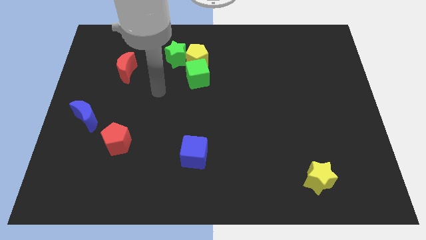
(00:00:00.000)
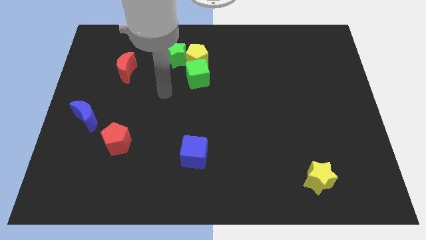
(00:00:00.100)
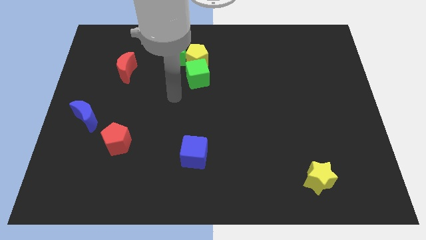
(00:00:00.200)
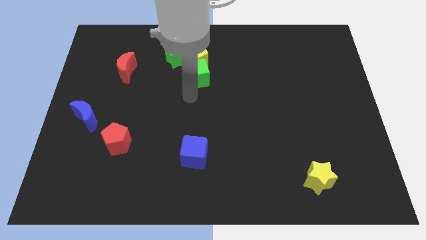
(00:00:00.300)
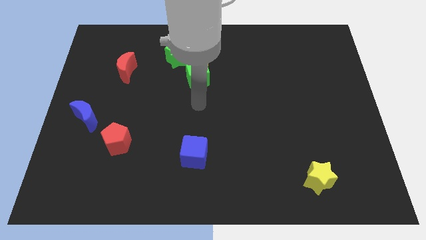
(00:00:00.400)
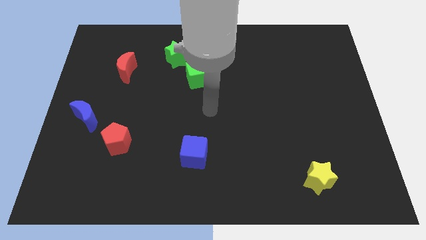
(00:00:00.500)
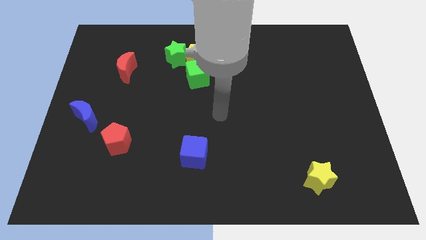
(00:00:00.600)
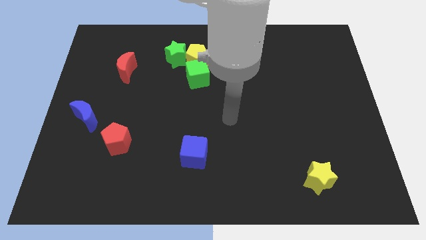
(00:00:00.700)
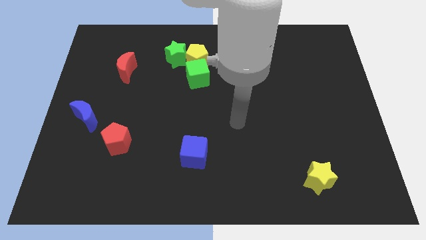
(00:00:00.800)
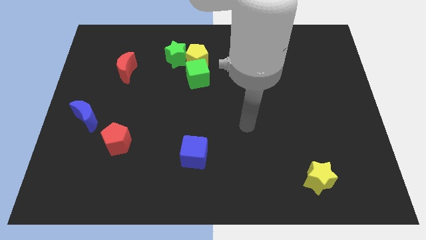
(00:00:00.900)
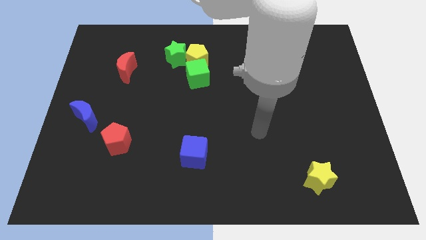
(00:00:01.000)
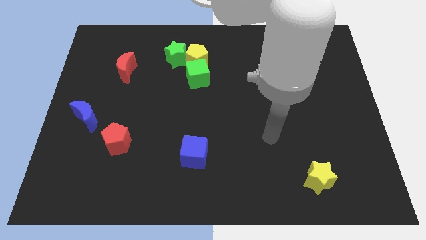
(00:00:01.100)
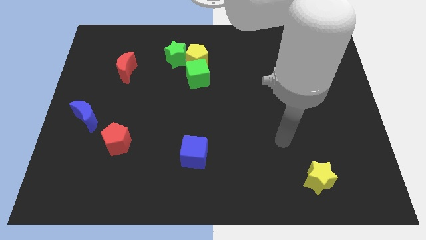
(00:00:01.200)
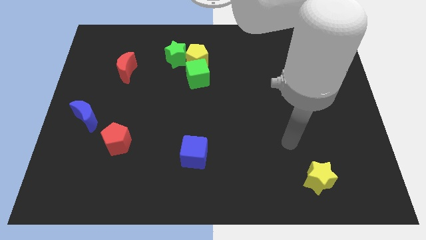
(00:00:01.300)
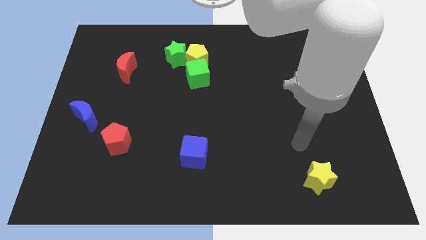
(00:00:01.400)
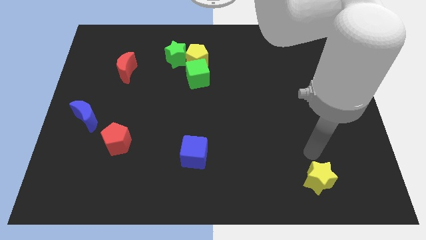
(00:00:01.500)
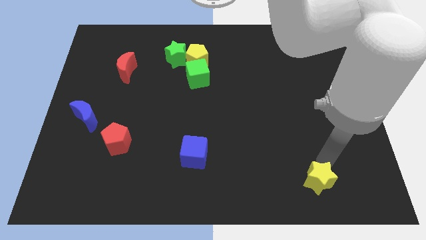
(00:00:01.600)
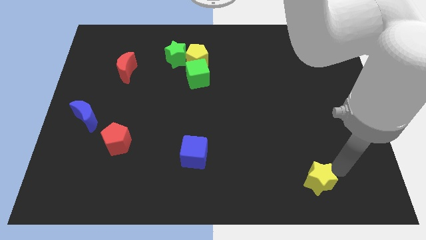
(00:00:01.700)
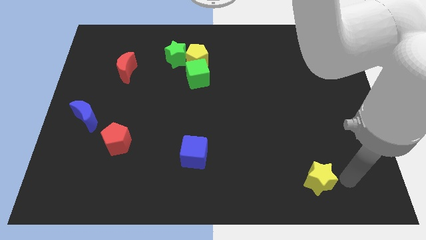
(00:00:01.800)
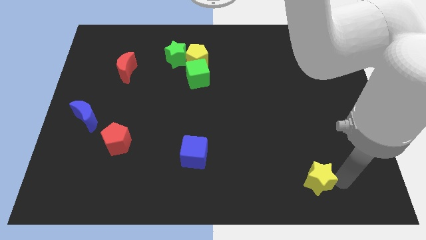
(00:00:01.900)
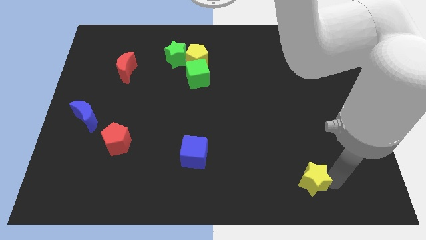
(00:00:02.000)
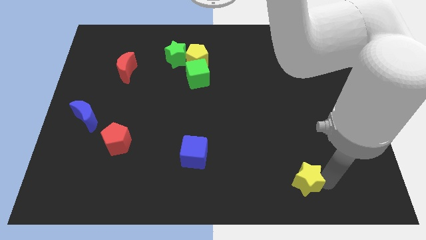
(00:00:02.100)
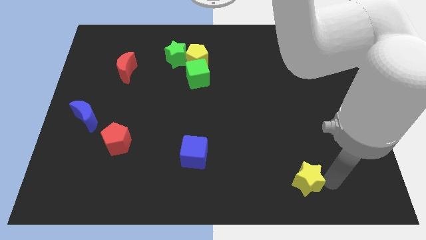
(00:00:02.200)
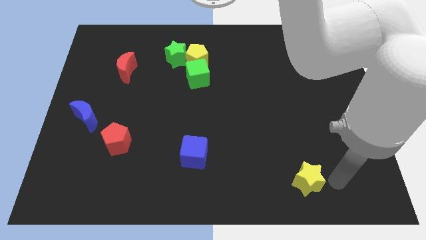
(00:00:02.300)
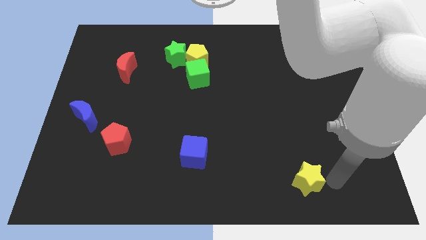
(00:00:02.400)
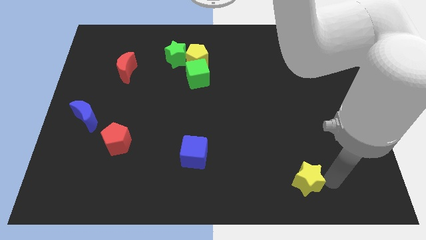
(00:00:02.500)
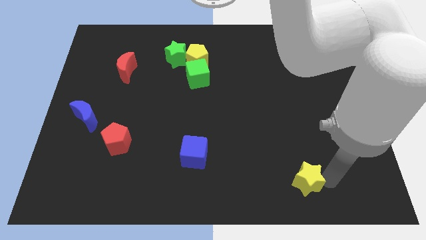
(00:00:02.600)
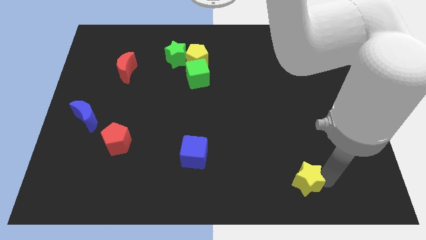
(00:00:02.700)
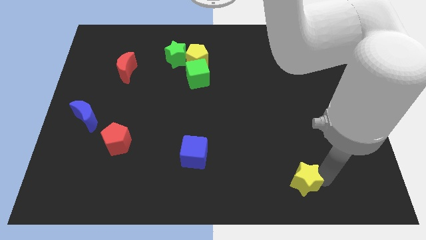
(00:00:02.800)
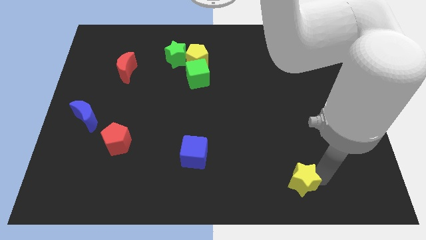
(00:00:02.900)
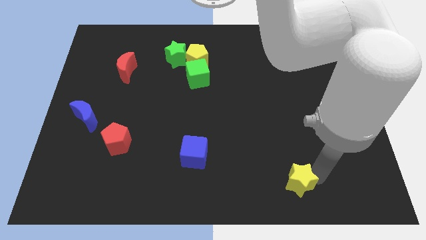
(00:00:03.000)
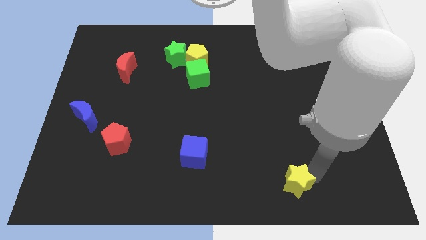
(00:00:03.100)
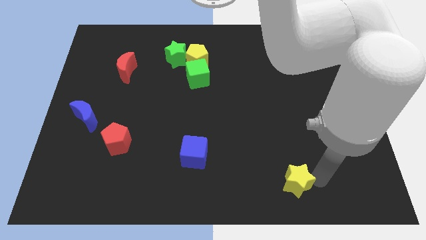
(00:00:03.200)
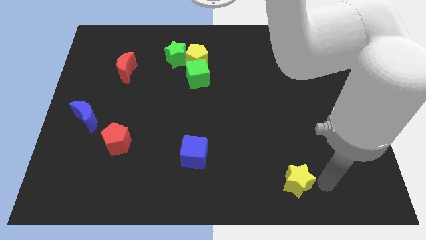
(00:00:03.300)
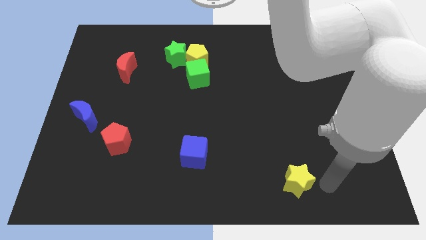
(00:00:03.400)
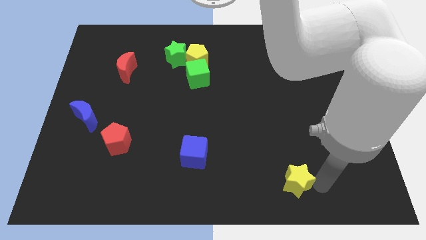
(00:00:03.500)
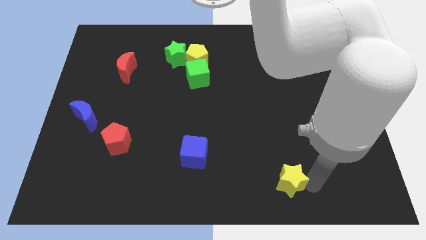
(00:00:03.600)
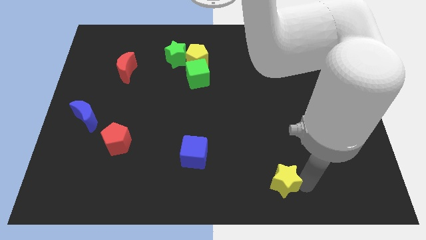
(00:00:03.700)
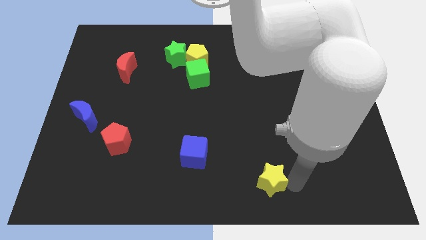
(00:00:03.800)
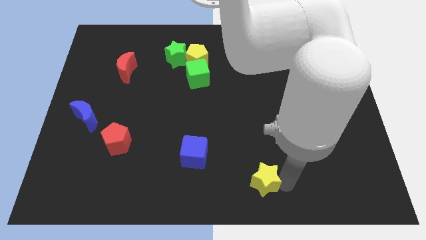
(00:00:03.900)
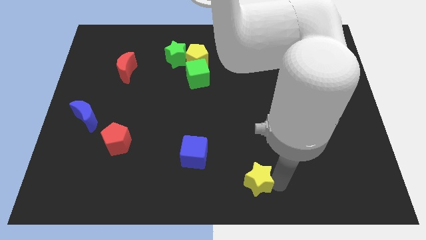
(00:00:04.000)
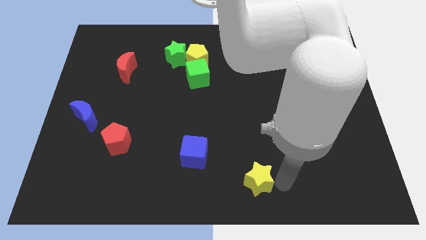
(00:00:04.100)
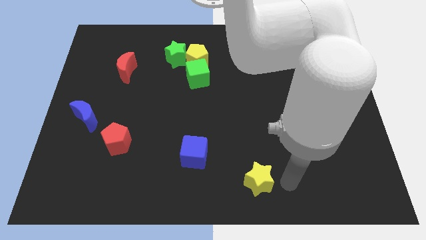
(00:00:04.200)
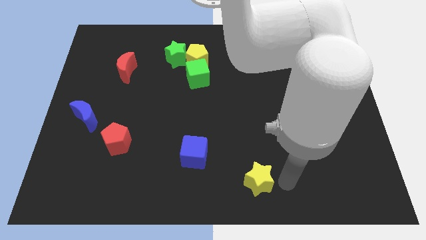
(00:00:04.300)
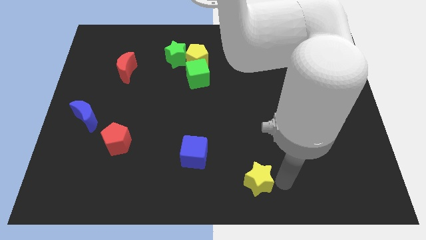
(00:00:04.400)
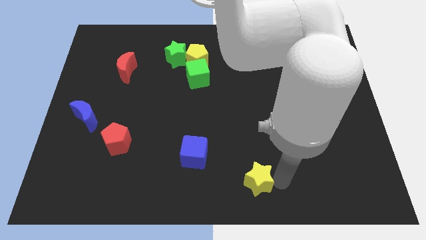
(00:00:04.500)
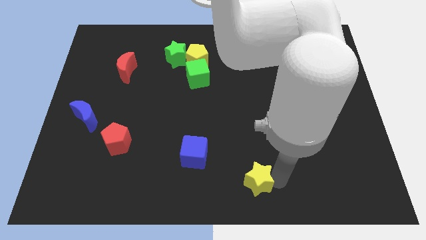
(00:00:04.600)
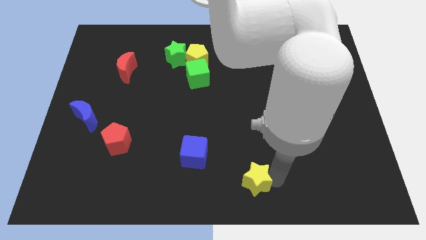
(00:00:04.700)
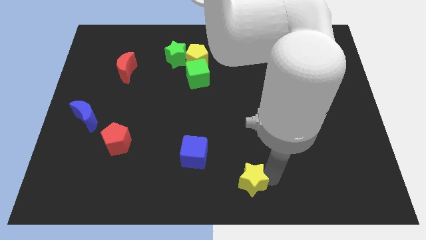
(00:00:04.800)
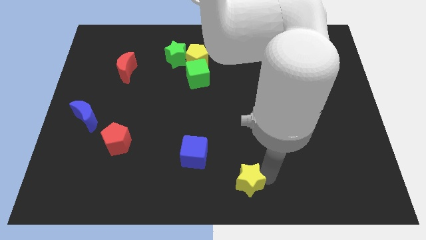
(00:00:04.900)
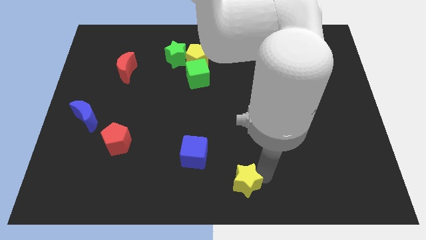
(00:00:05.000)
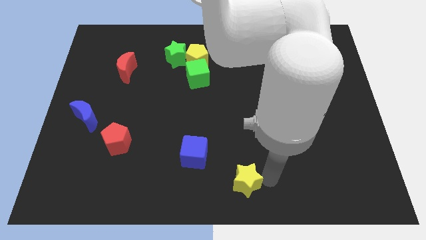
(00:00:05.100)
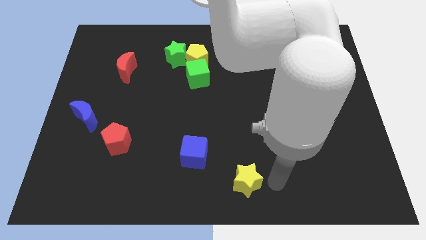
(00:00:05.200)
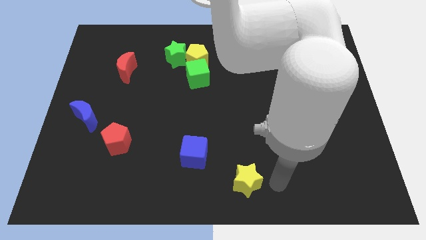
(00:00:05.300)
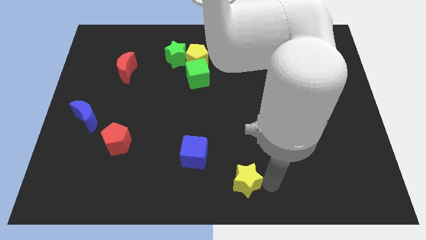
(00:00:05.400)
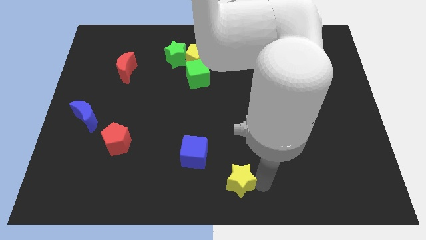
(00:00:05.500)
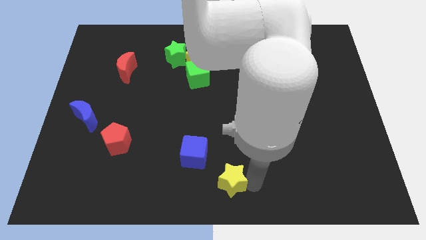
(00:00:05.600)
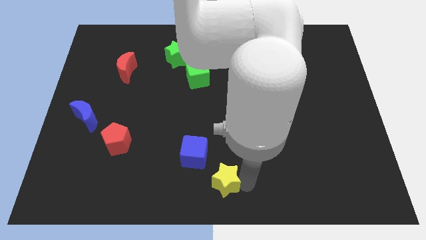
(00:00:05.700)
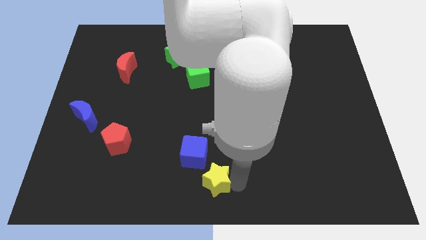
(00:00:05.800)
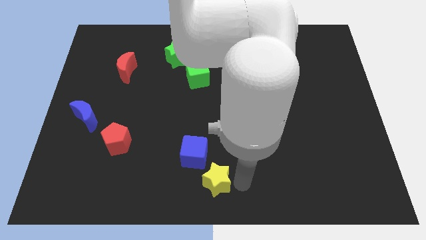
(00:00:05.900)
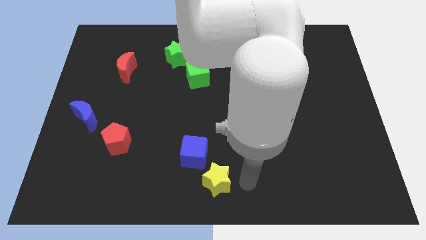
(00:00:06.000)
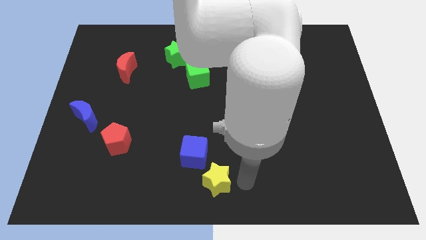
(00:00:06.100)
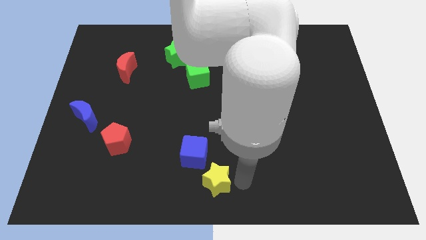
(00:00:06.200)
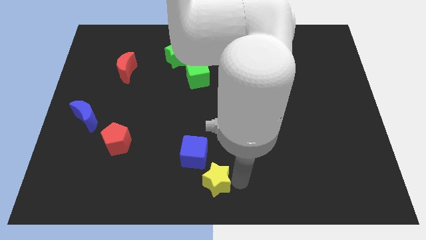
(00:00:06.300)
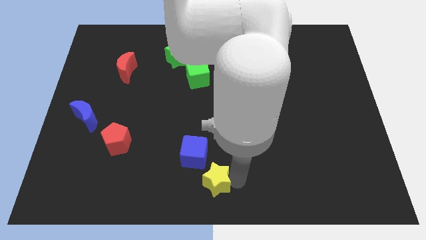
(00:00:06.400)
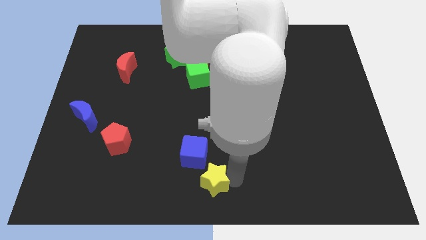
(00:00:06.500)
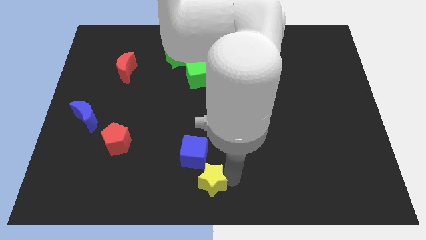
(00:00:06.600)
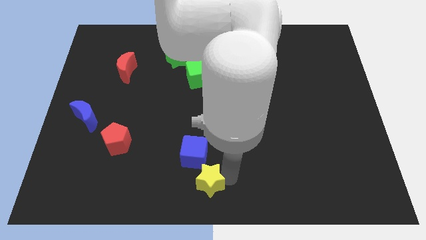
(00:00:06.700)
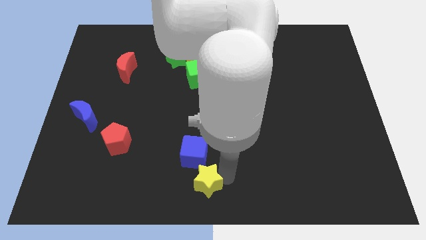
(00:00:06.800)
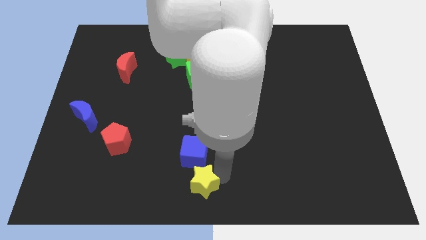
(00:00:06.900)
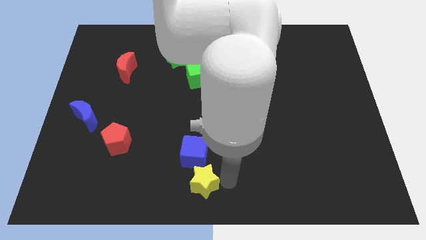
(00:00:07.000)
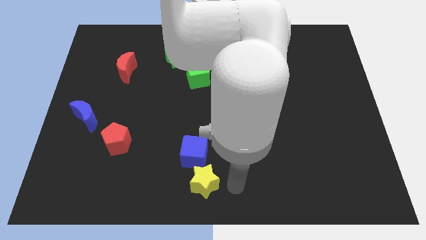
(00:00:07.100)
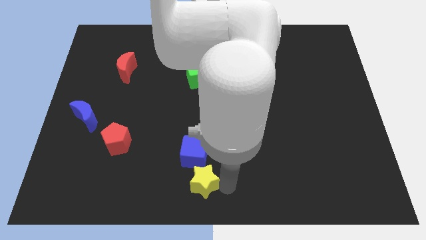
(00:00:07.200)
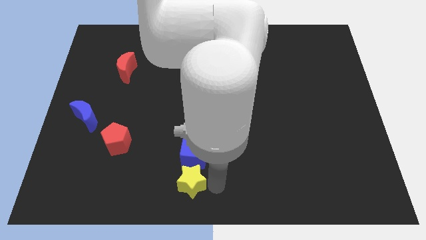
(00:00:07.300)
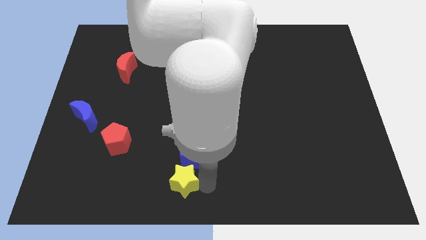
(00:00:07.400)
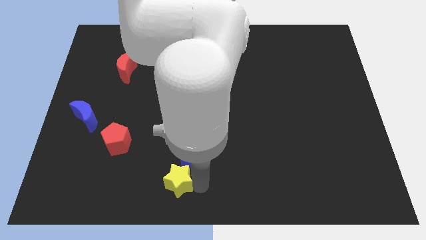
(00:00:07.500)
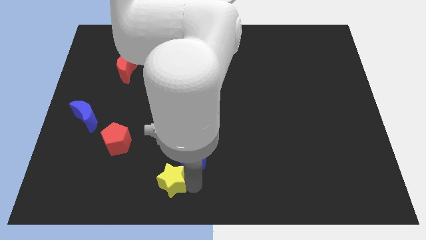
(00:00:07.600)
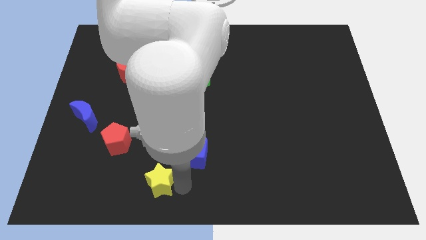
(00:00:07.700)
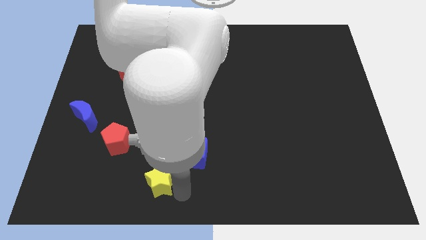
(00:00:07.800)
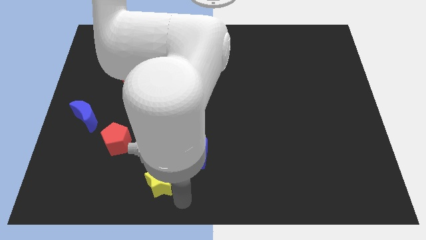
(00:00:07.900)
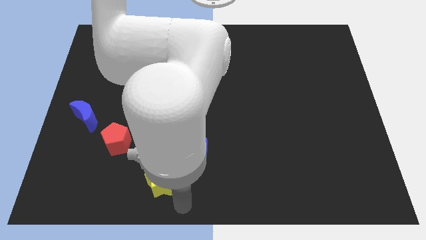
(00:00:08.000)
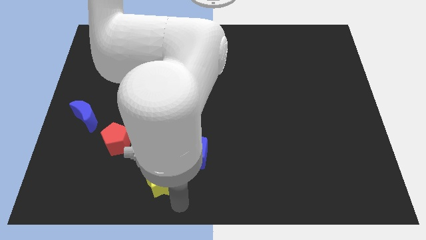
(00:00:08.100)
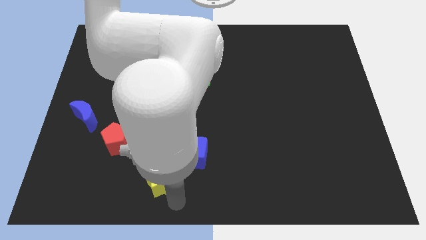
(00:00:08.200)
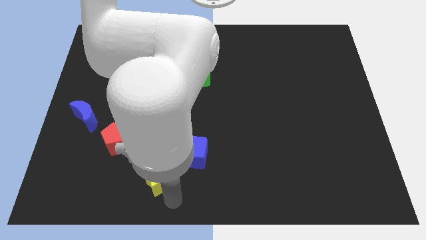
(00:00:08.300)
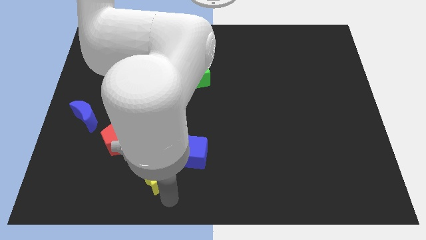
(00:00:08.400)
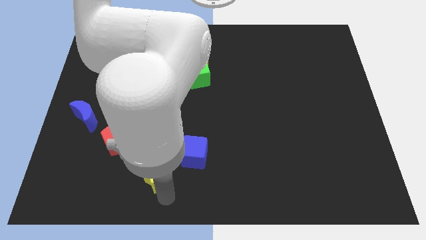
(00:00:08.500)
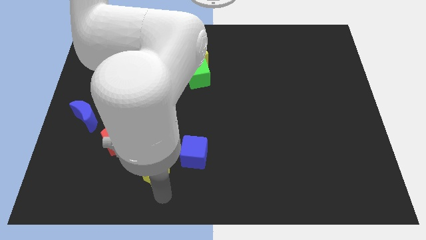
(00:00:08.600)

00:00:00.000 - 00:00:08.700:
push the yellow star to the bottom right side of the red pentagon
